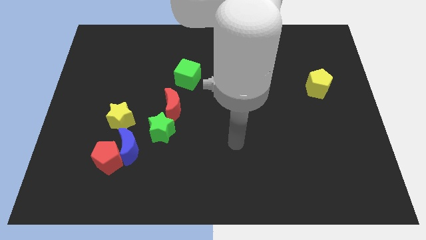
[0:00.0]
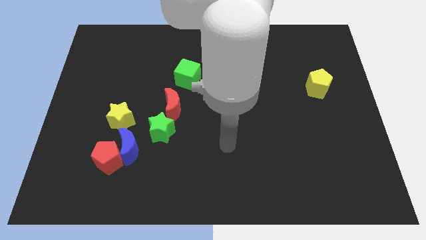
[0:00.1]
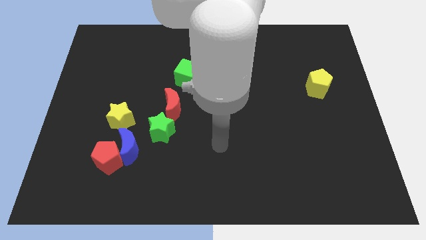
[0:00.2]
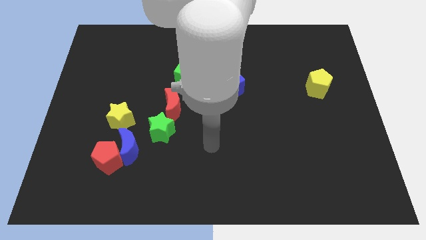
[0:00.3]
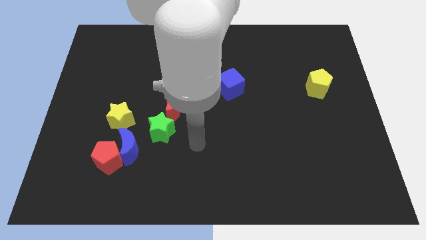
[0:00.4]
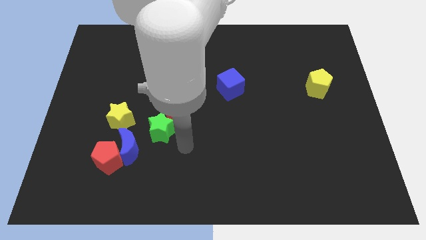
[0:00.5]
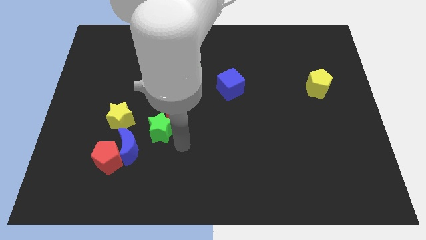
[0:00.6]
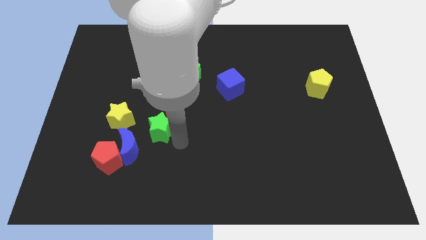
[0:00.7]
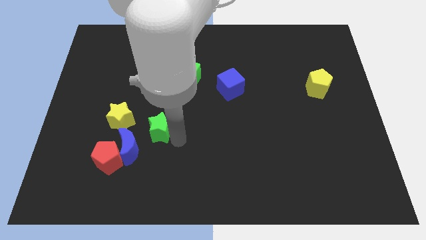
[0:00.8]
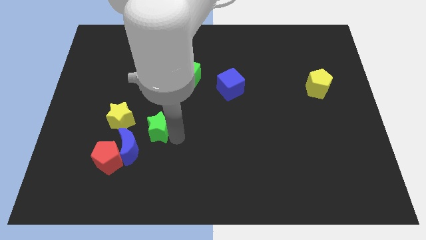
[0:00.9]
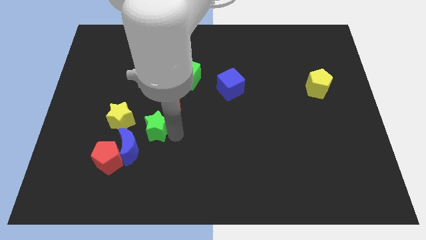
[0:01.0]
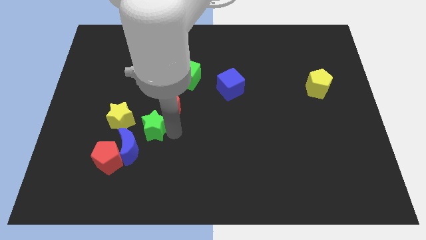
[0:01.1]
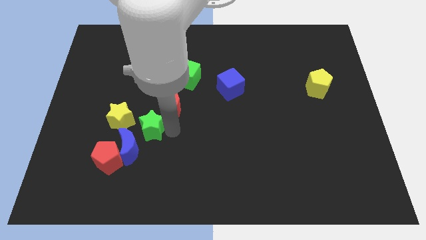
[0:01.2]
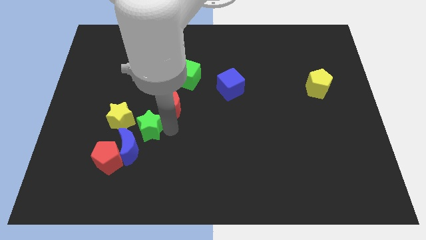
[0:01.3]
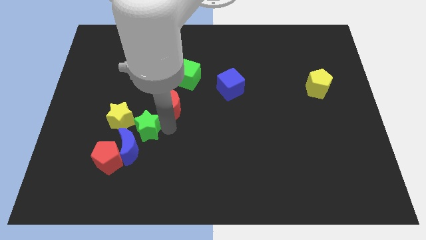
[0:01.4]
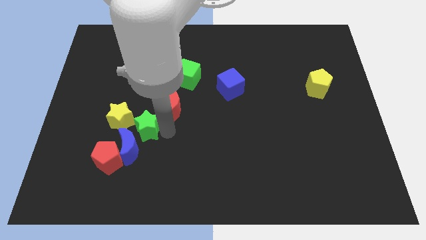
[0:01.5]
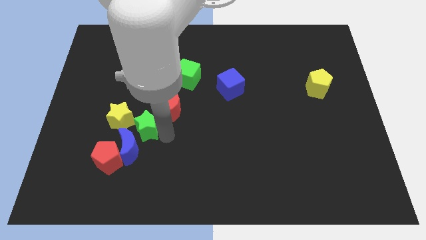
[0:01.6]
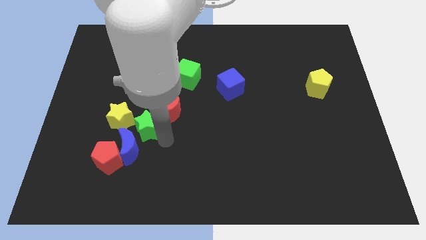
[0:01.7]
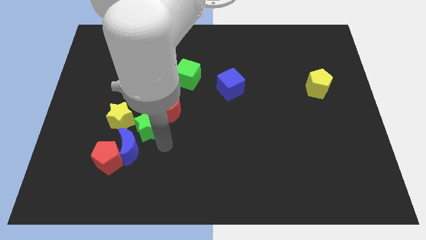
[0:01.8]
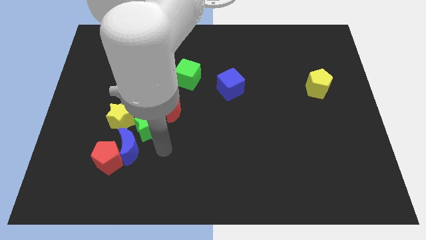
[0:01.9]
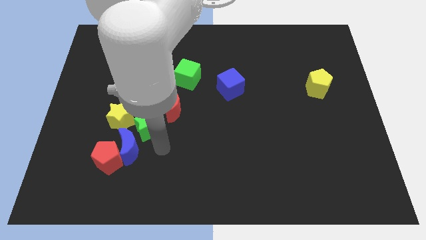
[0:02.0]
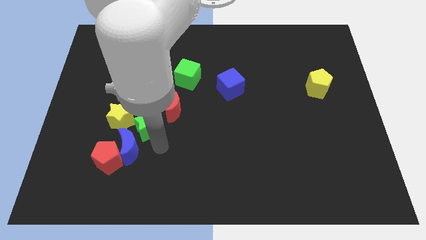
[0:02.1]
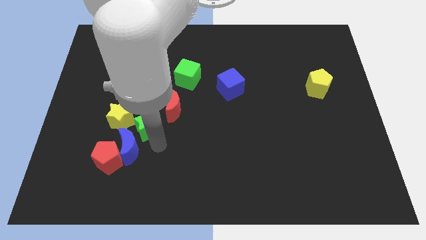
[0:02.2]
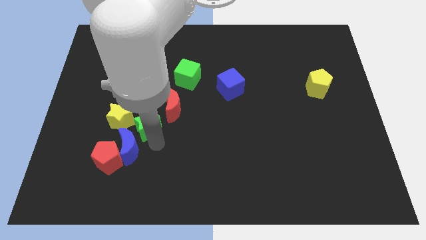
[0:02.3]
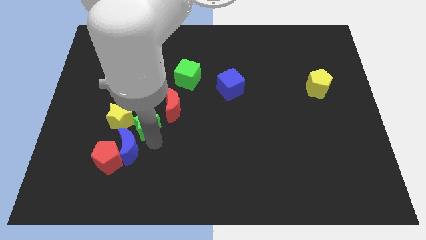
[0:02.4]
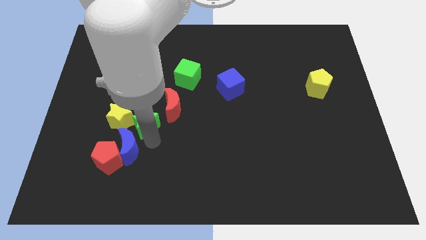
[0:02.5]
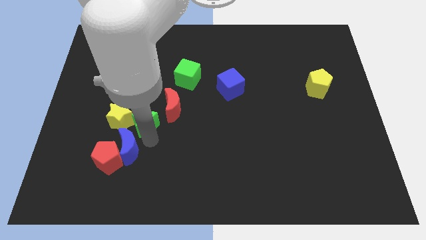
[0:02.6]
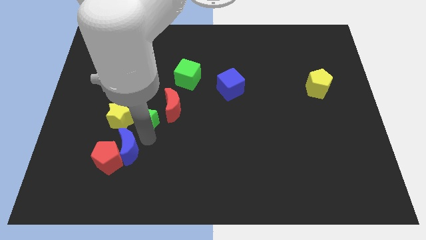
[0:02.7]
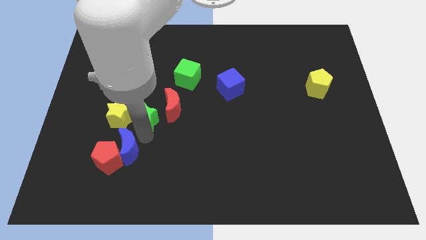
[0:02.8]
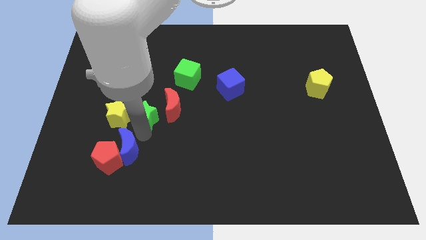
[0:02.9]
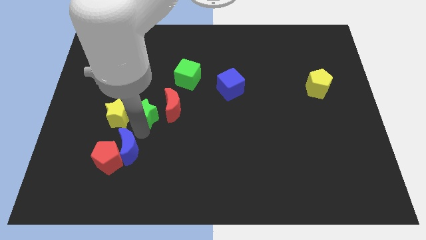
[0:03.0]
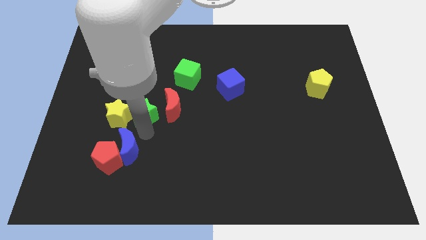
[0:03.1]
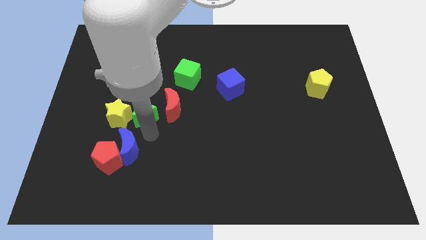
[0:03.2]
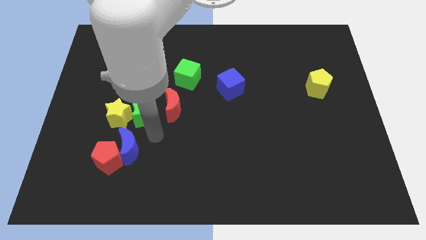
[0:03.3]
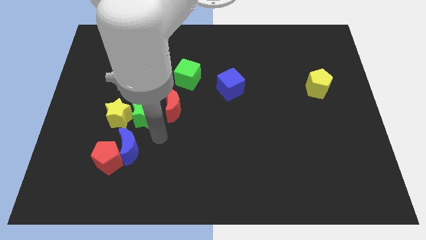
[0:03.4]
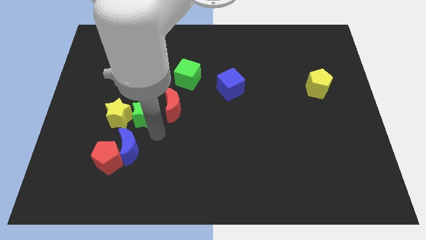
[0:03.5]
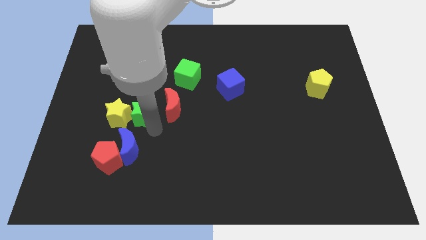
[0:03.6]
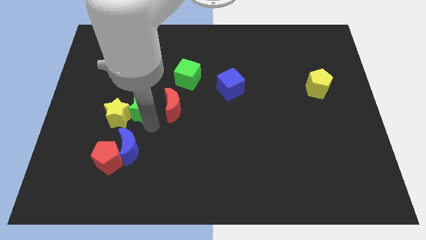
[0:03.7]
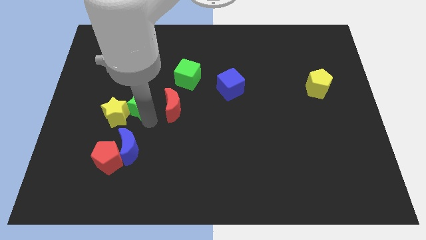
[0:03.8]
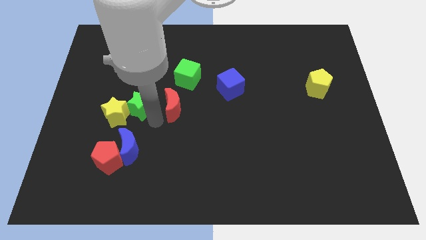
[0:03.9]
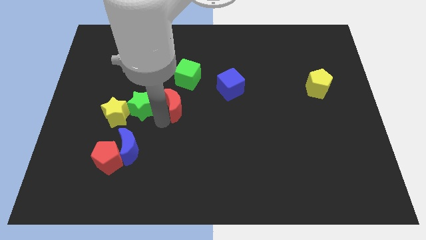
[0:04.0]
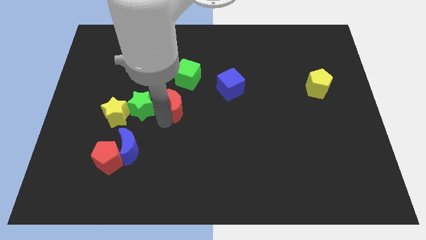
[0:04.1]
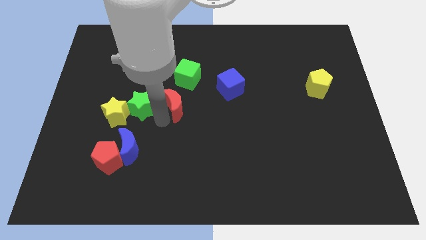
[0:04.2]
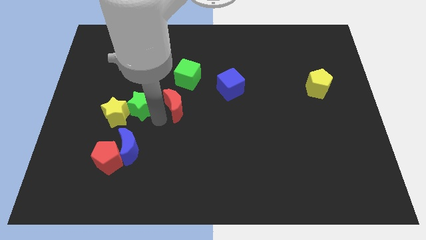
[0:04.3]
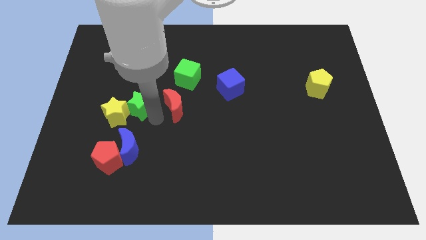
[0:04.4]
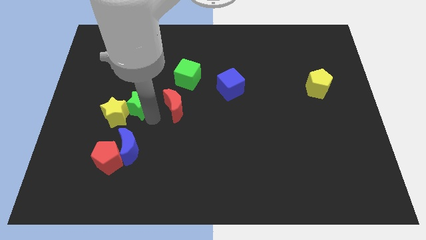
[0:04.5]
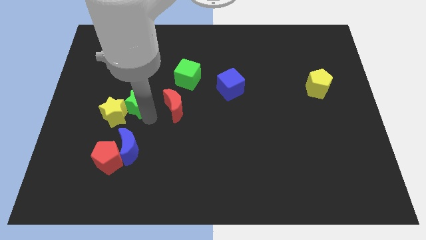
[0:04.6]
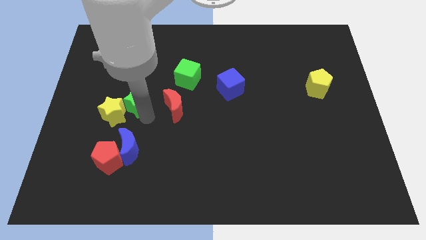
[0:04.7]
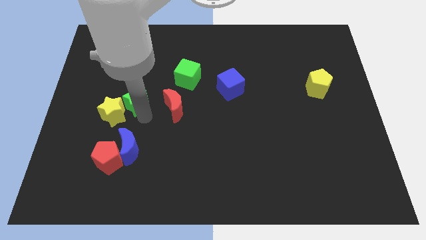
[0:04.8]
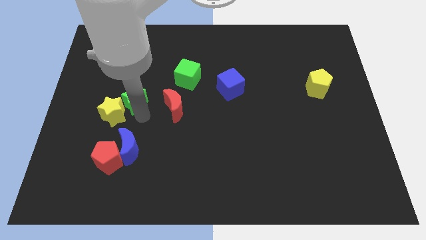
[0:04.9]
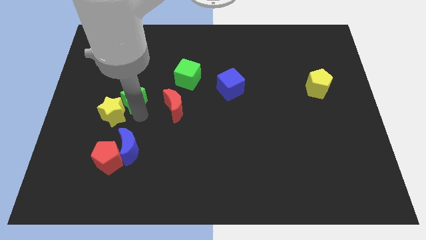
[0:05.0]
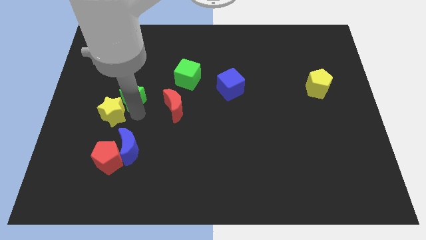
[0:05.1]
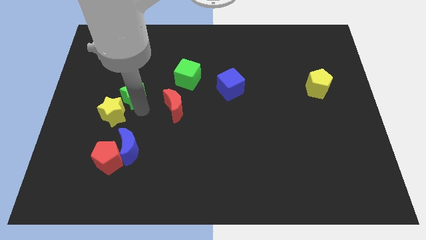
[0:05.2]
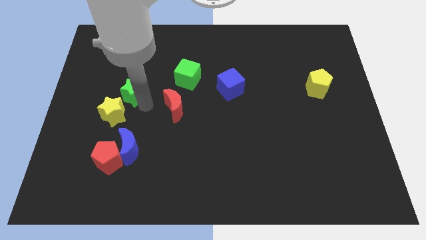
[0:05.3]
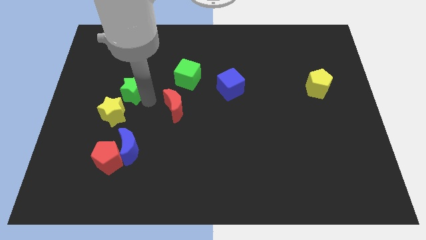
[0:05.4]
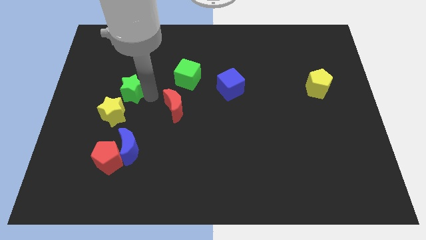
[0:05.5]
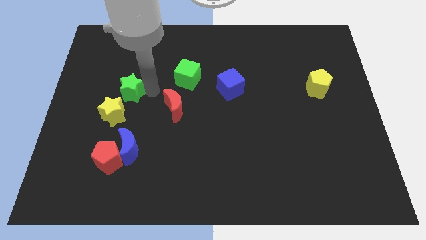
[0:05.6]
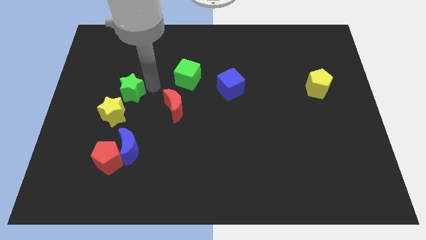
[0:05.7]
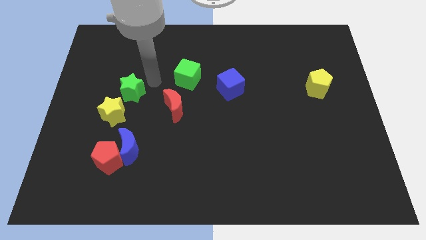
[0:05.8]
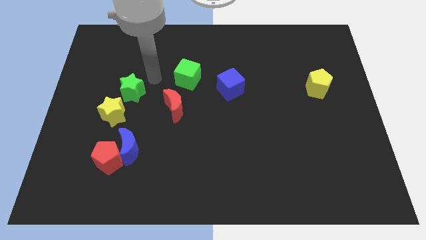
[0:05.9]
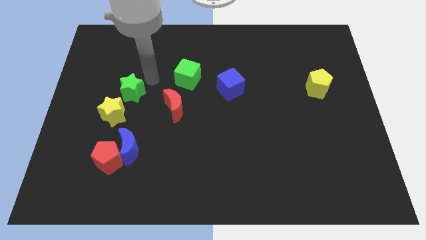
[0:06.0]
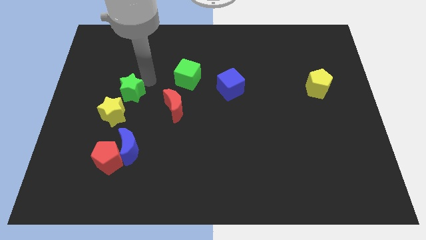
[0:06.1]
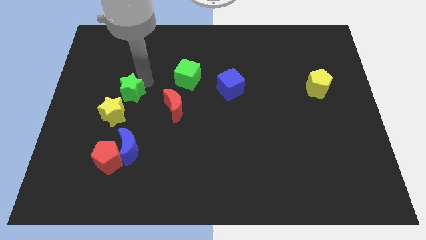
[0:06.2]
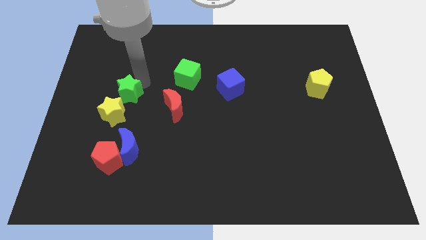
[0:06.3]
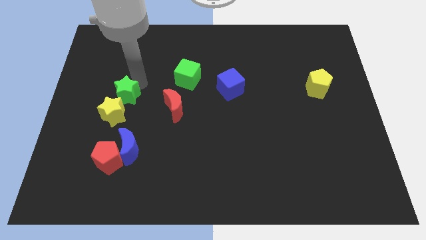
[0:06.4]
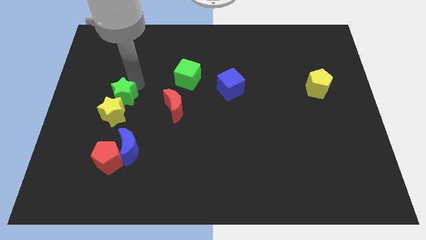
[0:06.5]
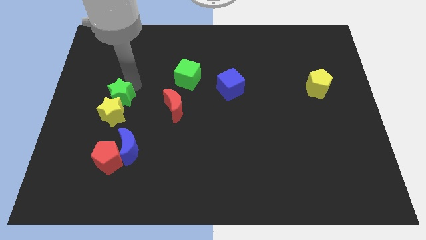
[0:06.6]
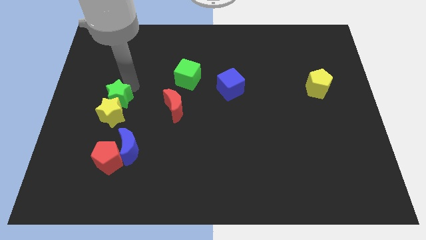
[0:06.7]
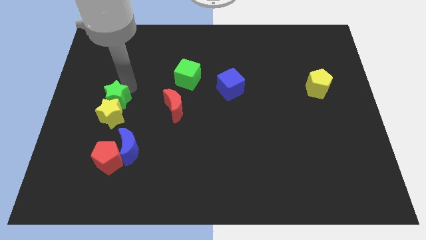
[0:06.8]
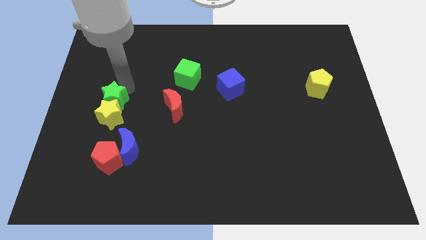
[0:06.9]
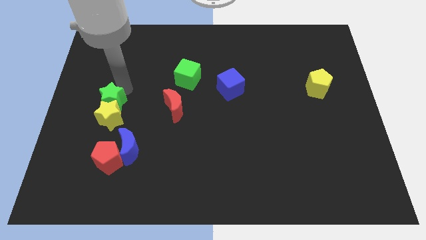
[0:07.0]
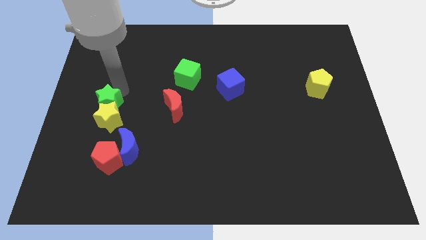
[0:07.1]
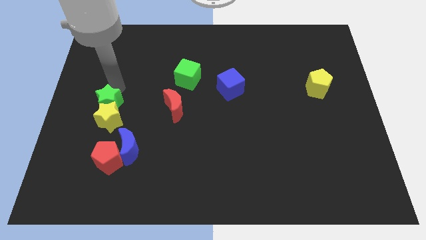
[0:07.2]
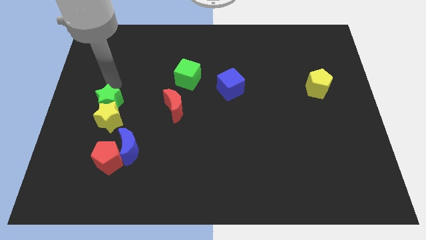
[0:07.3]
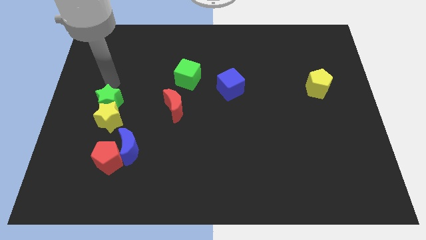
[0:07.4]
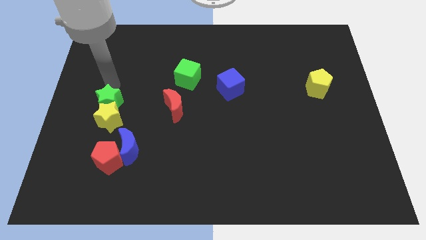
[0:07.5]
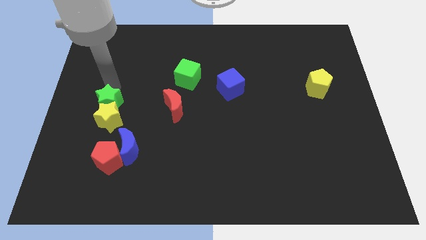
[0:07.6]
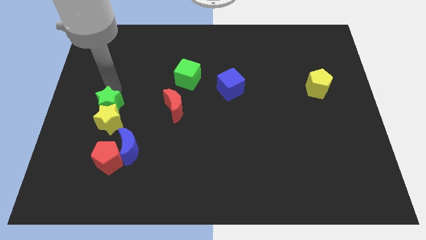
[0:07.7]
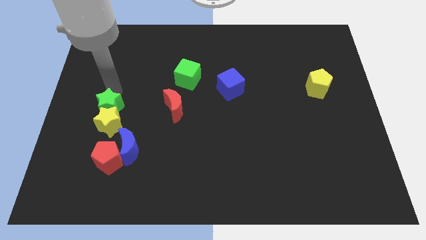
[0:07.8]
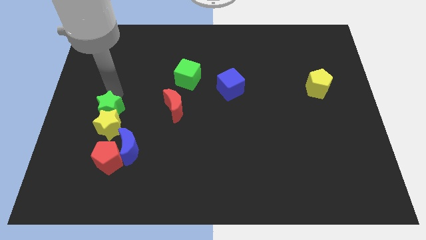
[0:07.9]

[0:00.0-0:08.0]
slide the green star to the top left side of the blue moon
